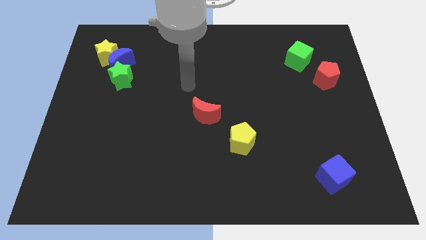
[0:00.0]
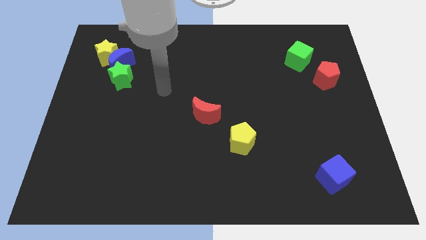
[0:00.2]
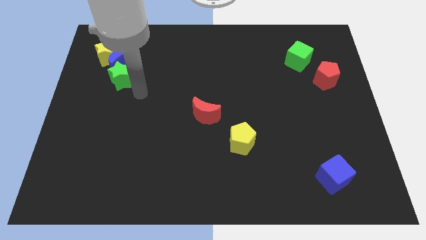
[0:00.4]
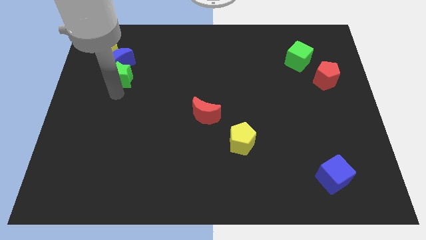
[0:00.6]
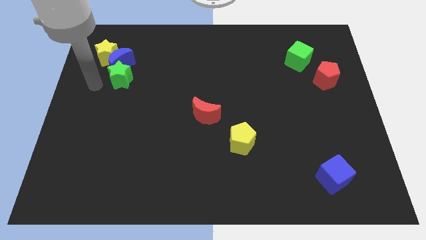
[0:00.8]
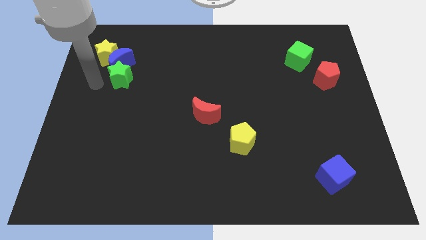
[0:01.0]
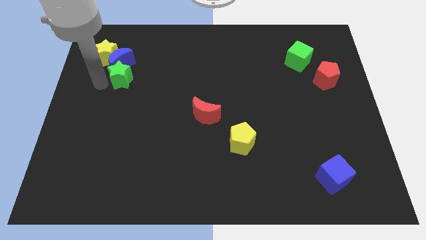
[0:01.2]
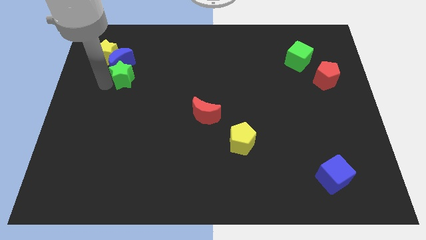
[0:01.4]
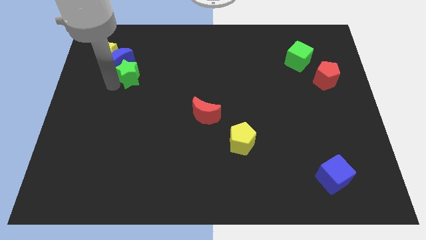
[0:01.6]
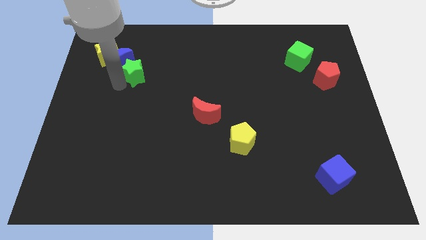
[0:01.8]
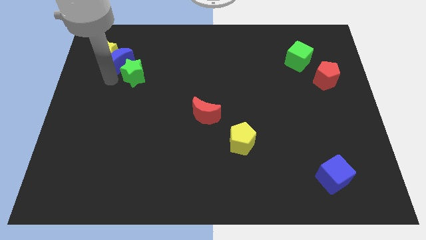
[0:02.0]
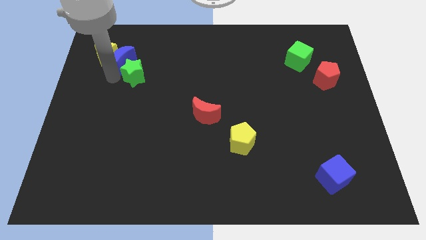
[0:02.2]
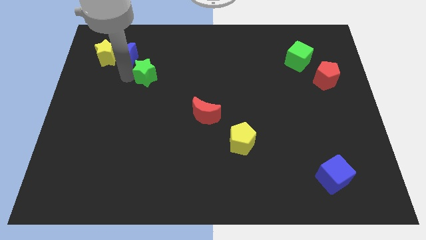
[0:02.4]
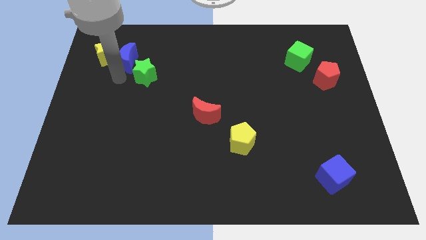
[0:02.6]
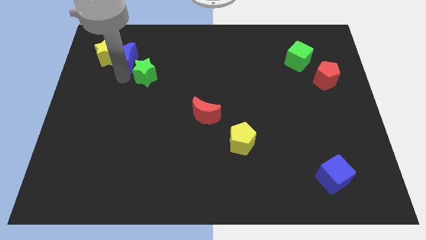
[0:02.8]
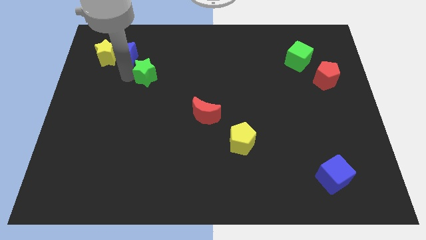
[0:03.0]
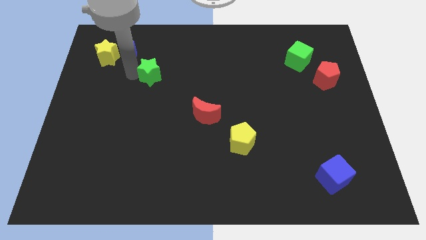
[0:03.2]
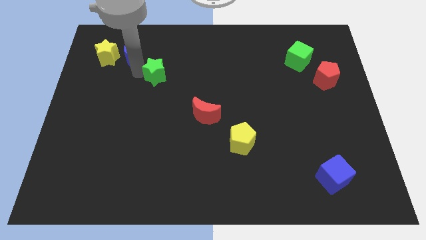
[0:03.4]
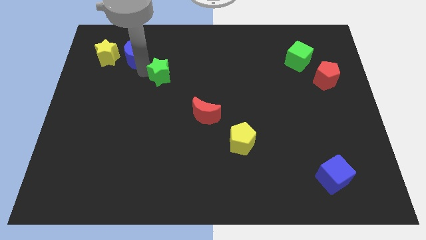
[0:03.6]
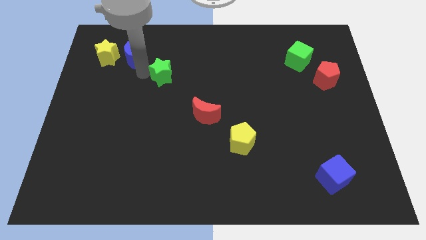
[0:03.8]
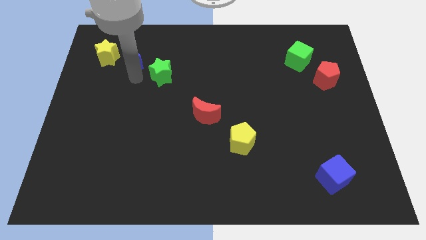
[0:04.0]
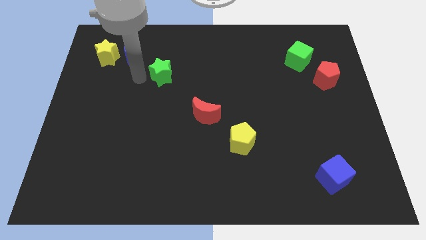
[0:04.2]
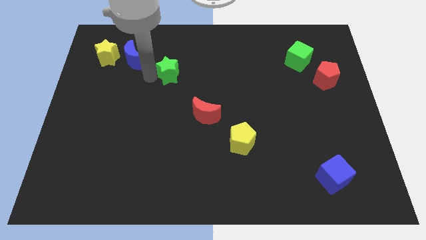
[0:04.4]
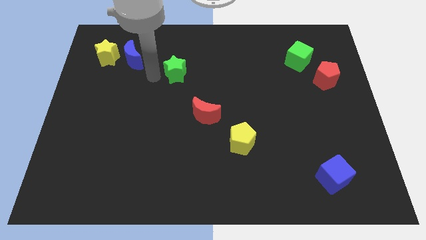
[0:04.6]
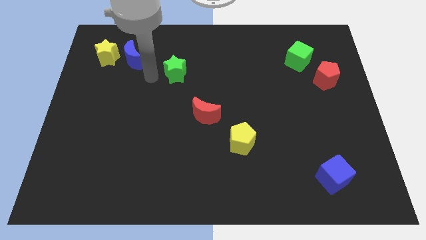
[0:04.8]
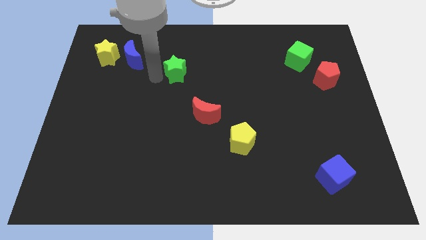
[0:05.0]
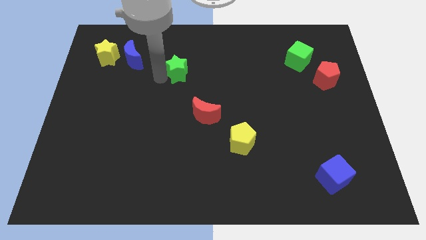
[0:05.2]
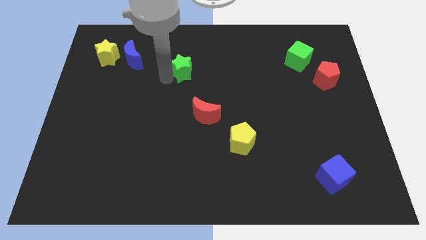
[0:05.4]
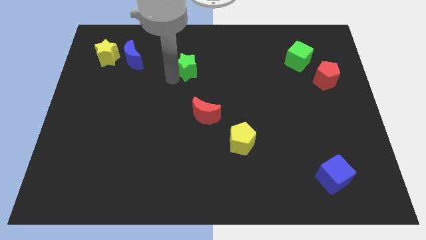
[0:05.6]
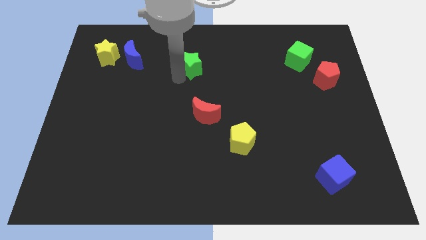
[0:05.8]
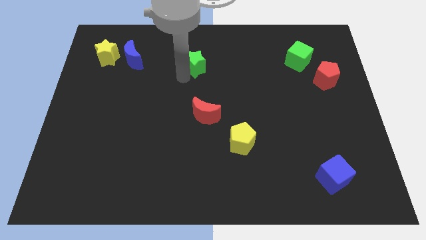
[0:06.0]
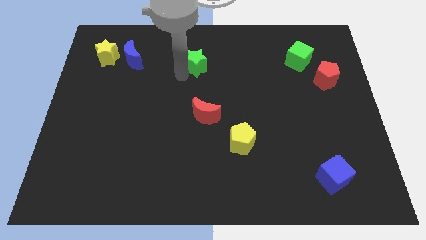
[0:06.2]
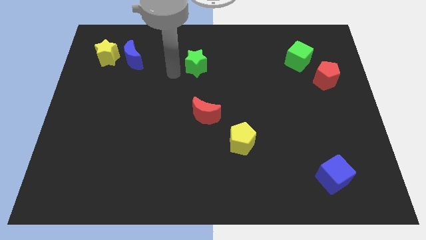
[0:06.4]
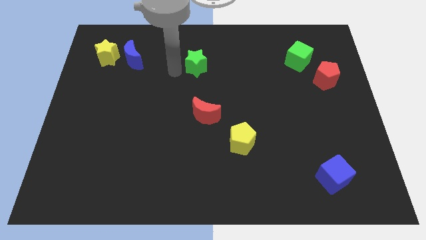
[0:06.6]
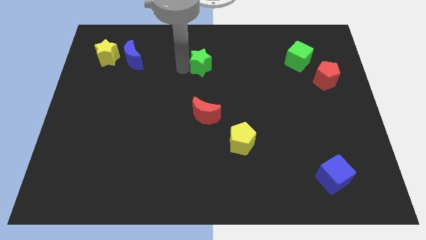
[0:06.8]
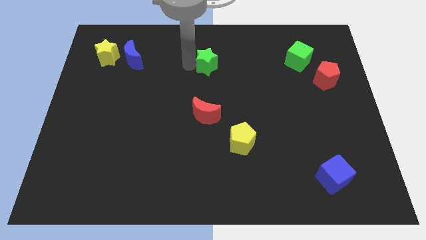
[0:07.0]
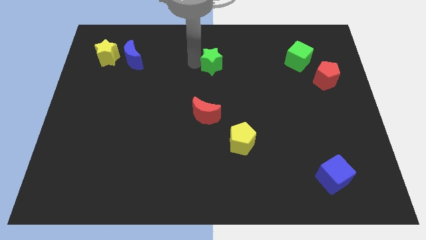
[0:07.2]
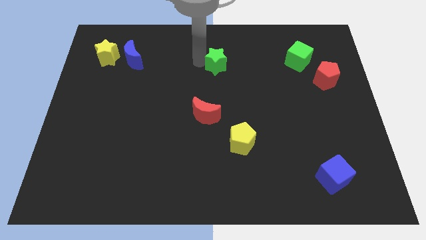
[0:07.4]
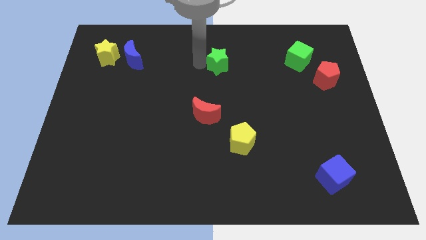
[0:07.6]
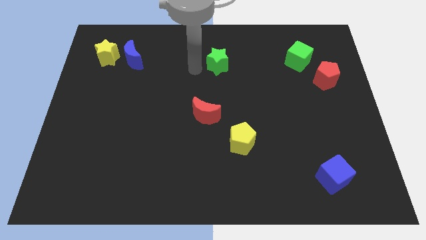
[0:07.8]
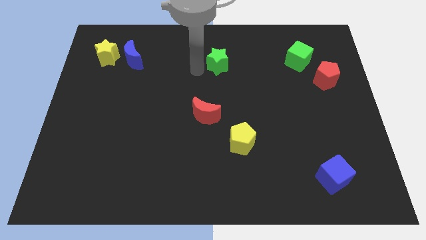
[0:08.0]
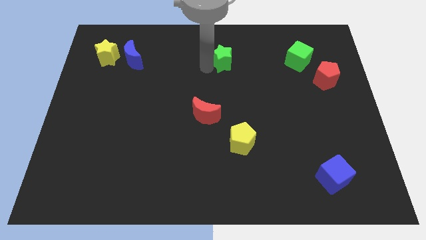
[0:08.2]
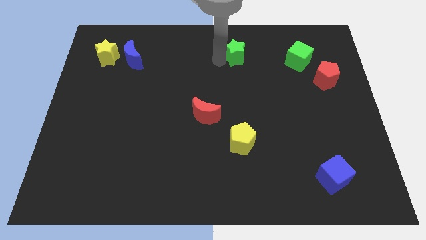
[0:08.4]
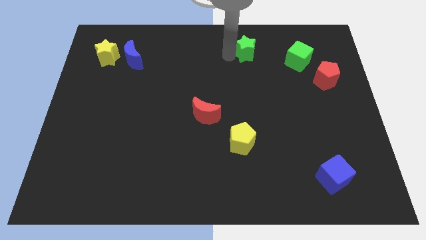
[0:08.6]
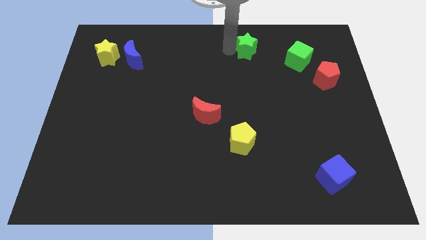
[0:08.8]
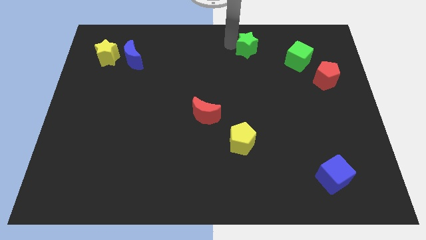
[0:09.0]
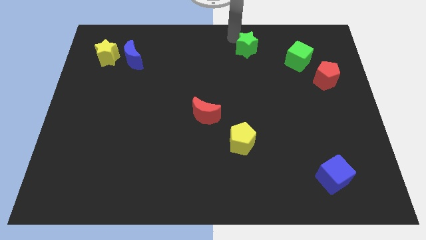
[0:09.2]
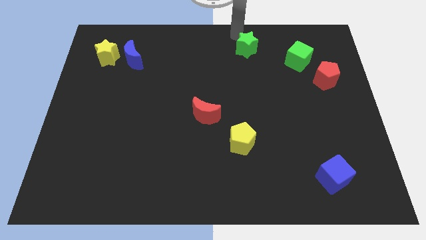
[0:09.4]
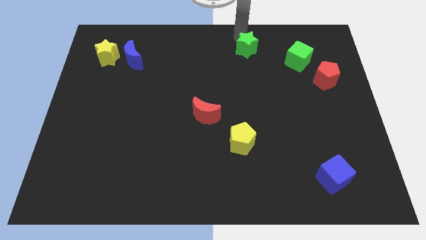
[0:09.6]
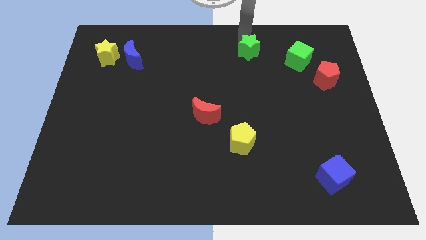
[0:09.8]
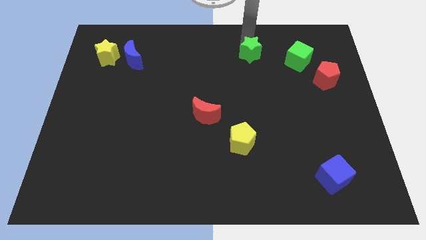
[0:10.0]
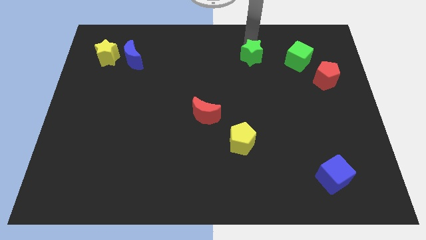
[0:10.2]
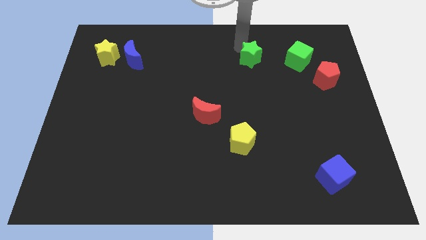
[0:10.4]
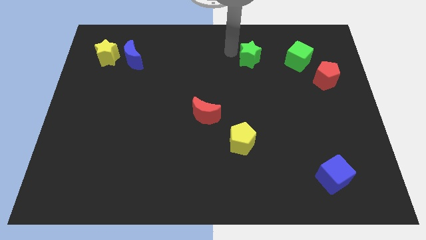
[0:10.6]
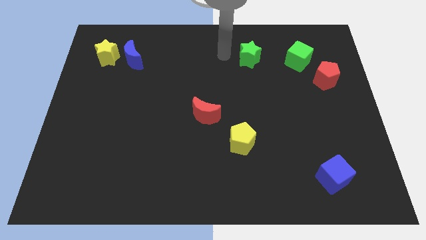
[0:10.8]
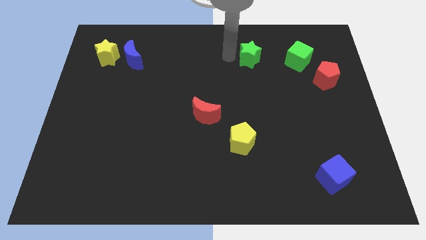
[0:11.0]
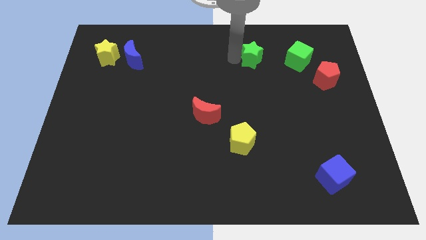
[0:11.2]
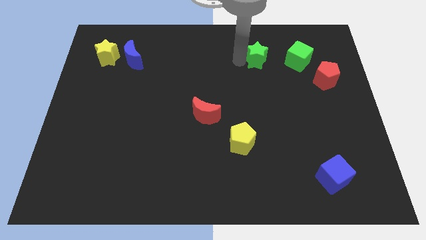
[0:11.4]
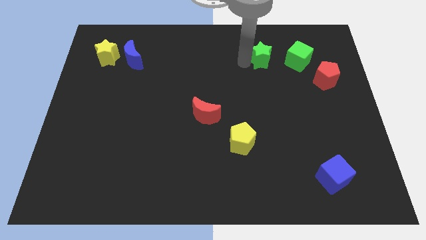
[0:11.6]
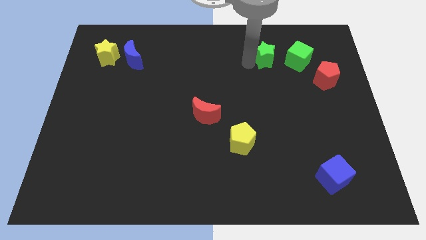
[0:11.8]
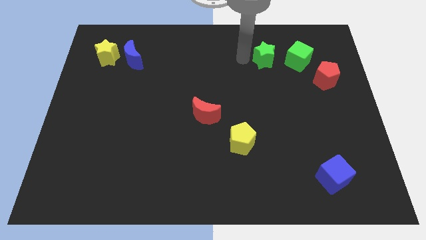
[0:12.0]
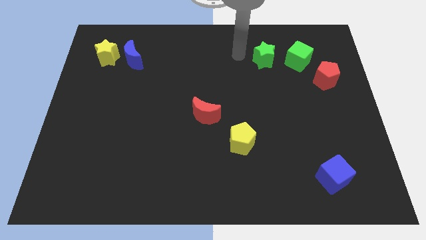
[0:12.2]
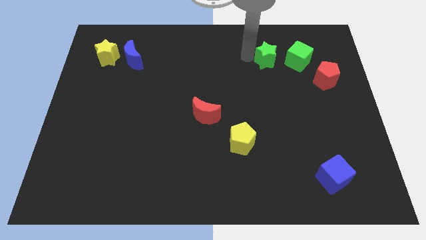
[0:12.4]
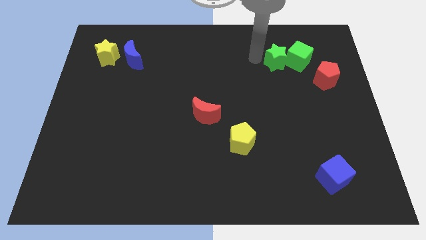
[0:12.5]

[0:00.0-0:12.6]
put the green star towards the green cube

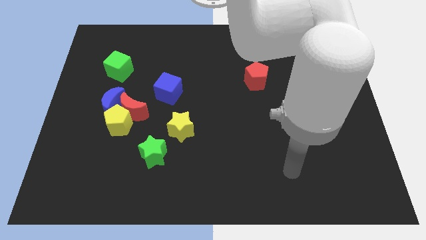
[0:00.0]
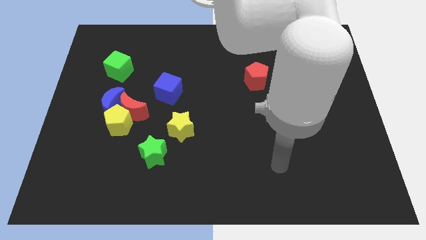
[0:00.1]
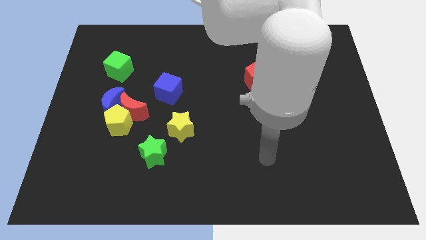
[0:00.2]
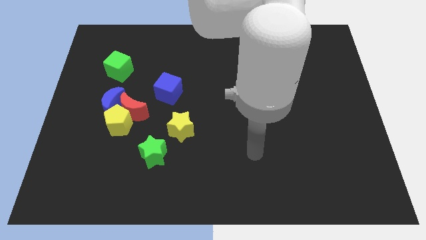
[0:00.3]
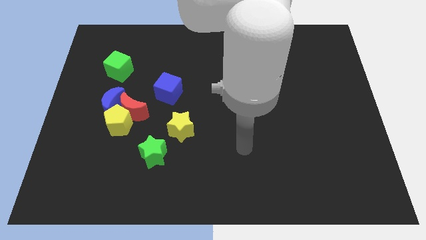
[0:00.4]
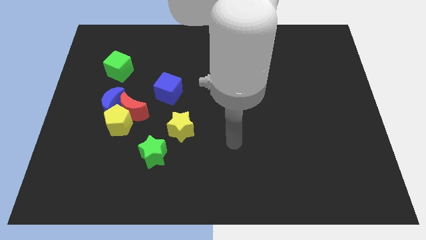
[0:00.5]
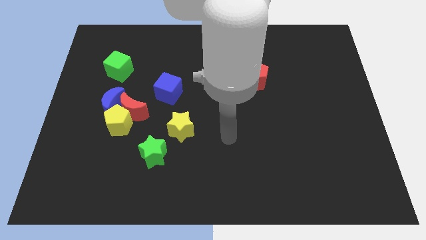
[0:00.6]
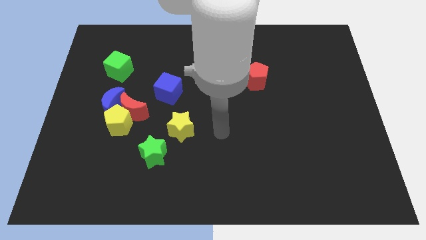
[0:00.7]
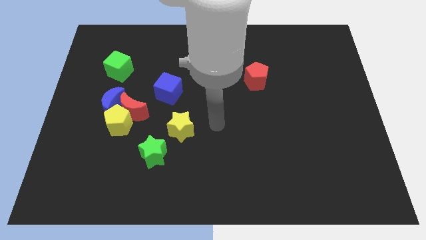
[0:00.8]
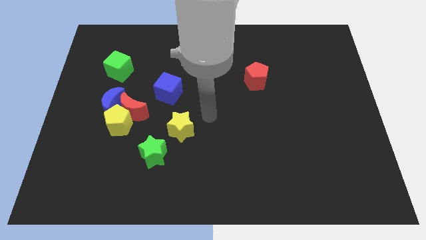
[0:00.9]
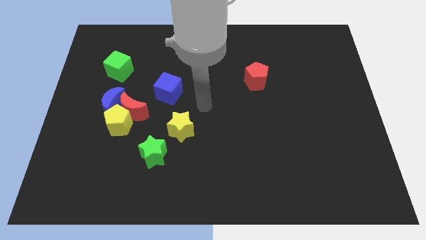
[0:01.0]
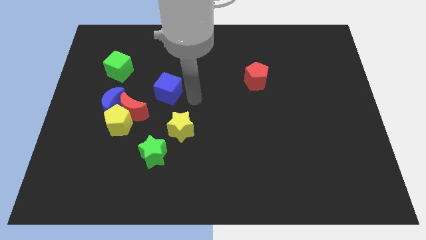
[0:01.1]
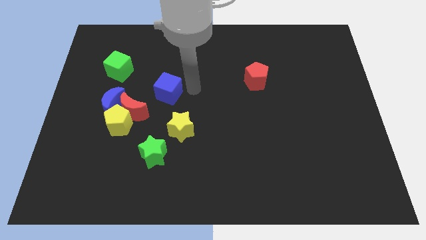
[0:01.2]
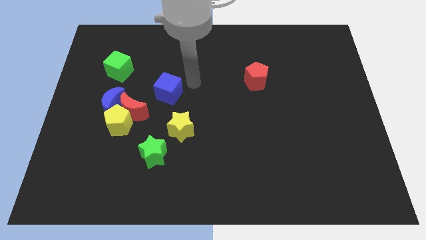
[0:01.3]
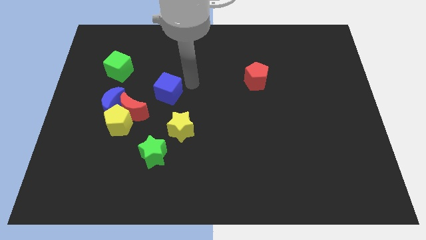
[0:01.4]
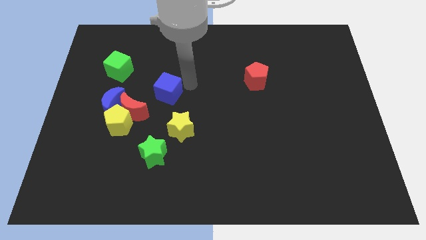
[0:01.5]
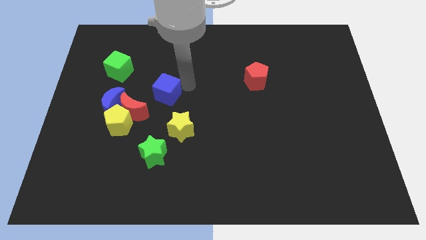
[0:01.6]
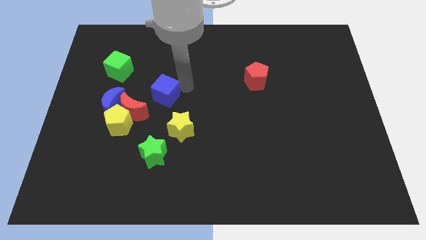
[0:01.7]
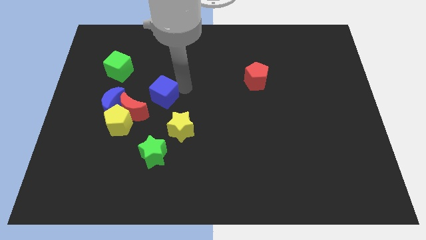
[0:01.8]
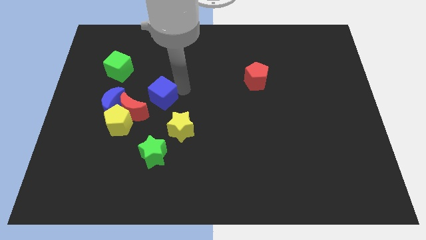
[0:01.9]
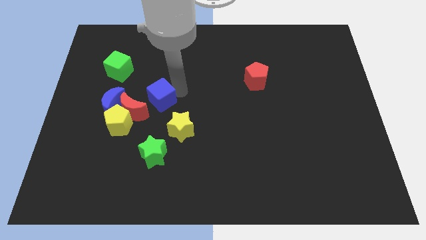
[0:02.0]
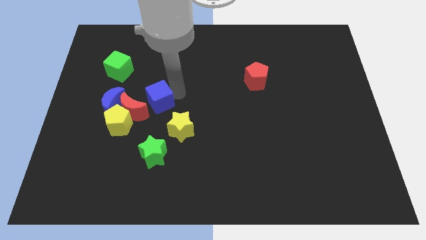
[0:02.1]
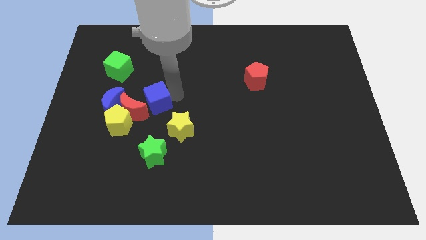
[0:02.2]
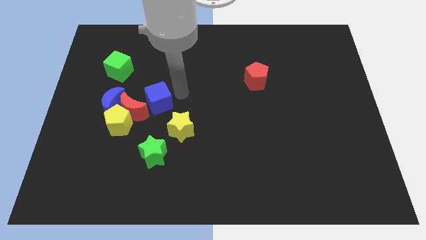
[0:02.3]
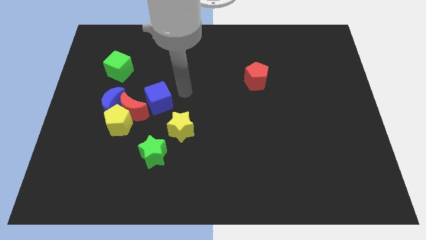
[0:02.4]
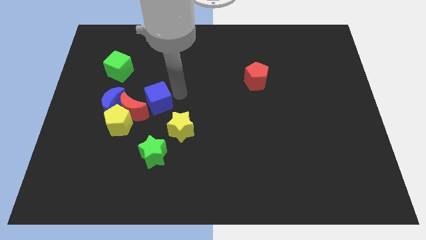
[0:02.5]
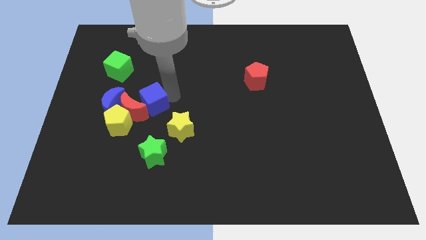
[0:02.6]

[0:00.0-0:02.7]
move the blue cube to the red moon
